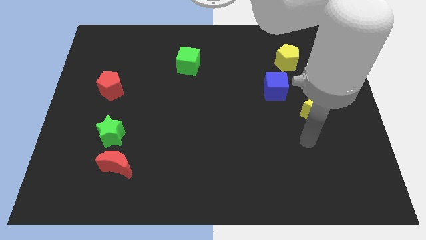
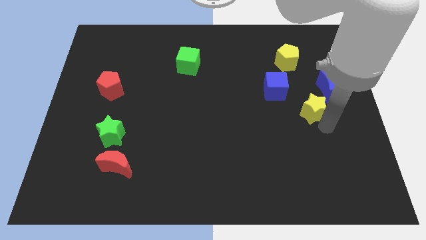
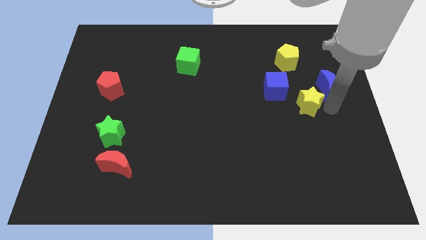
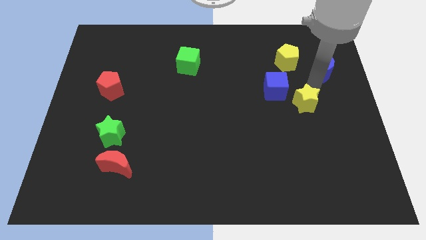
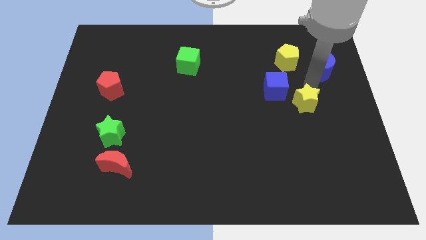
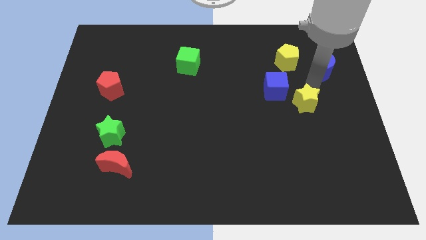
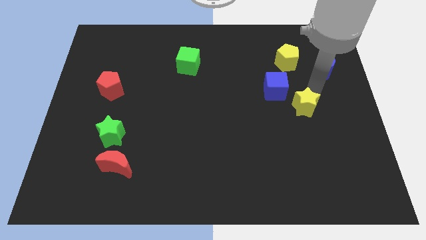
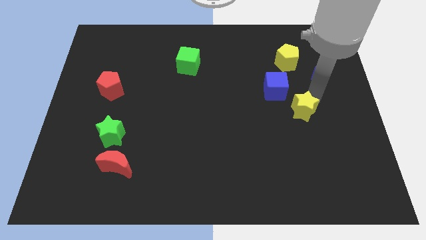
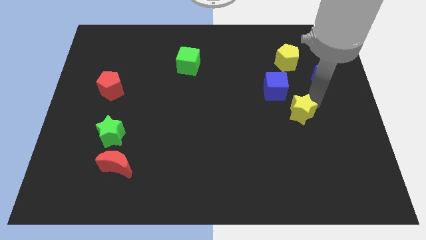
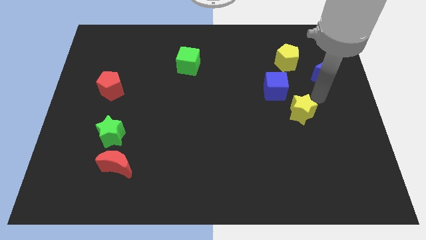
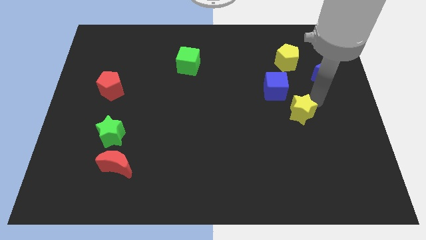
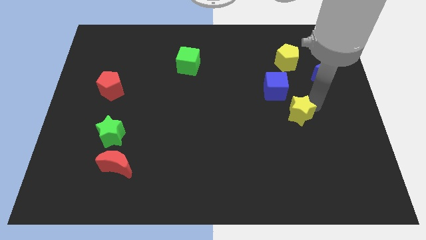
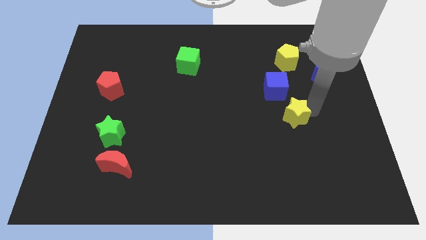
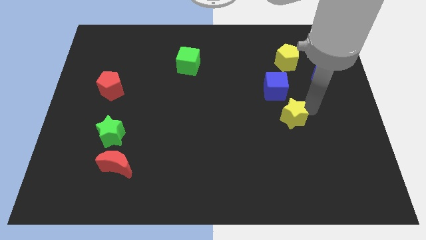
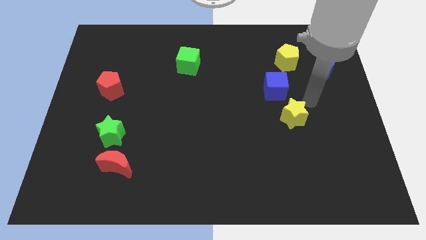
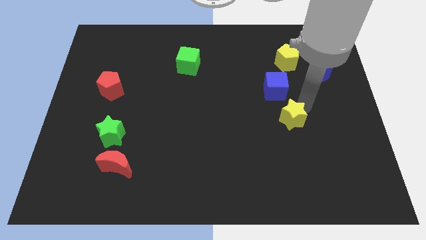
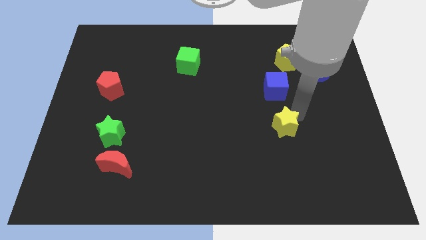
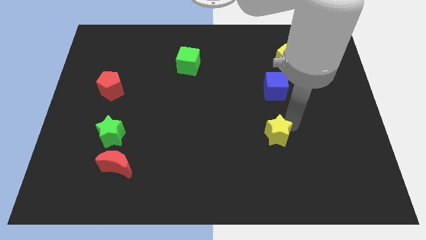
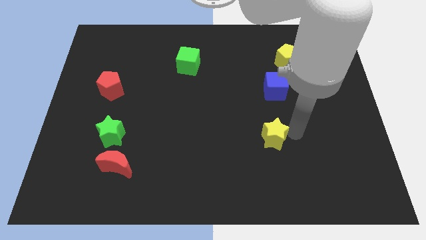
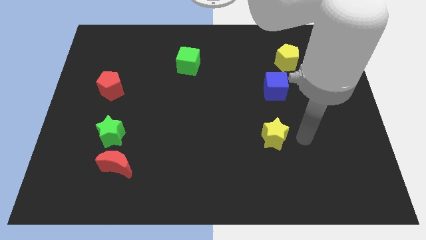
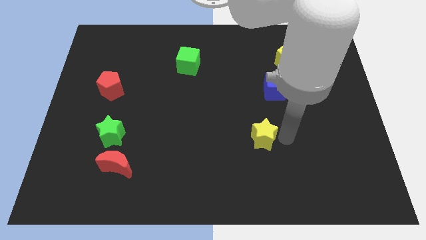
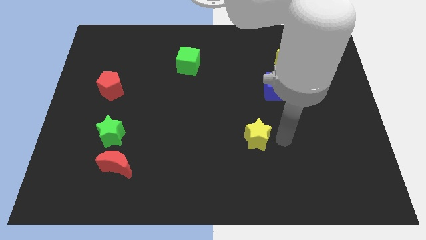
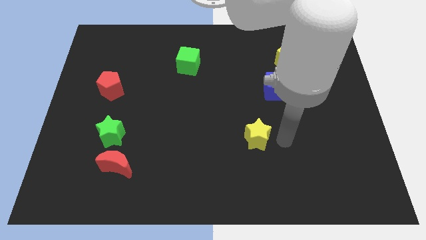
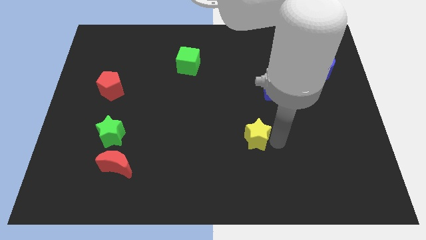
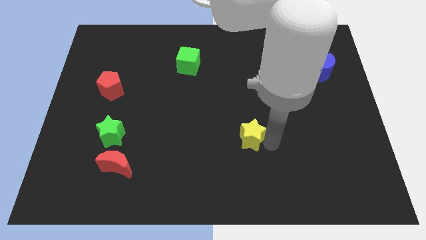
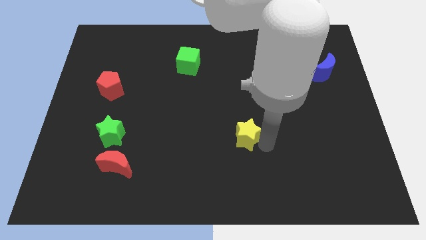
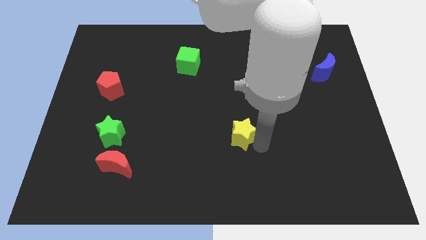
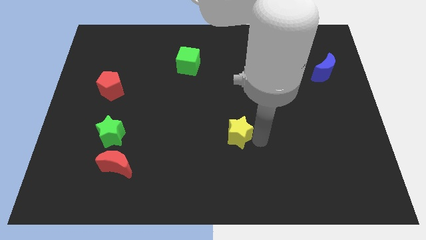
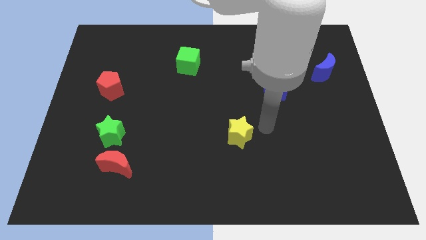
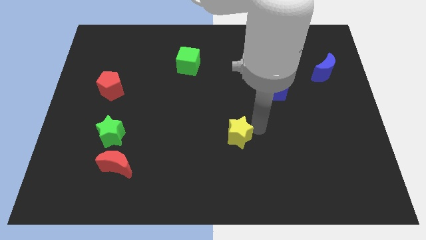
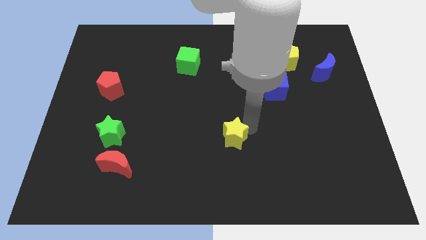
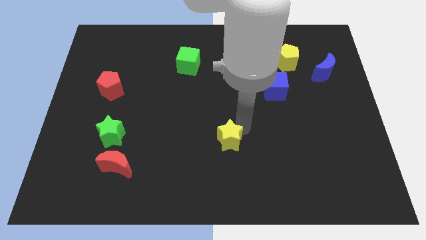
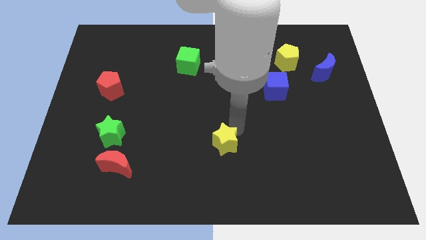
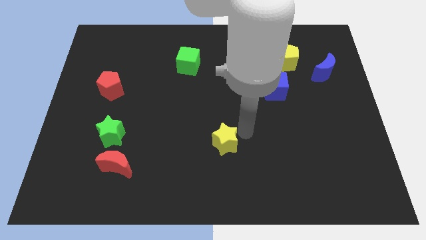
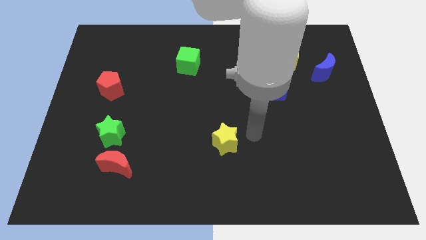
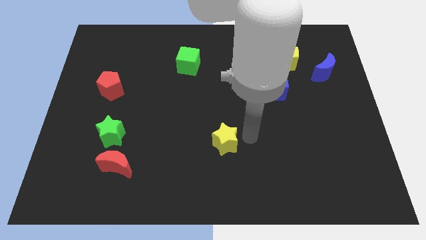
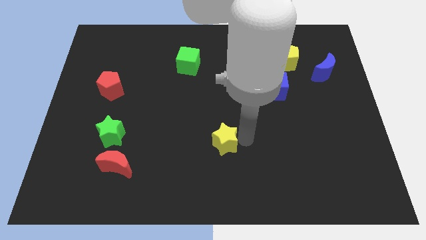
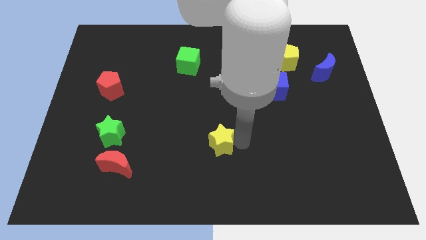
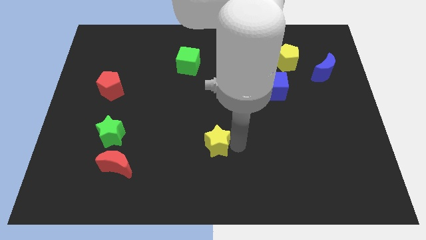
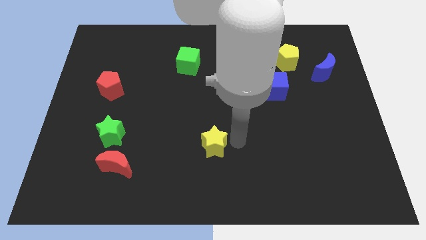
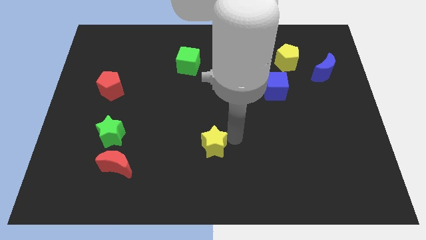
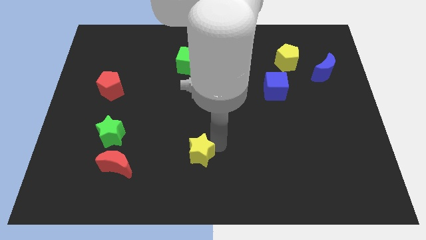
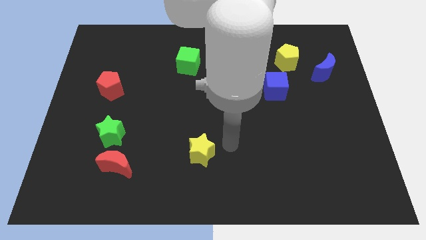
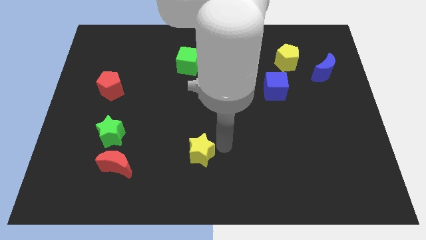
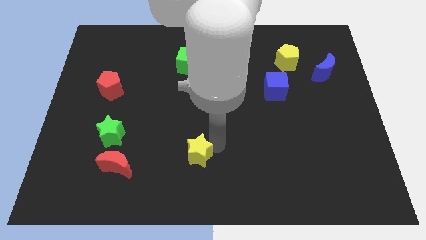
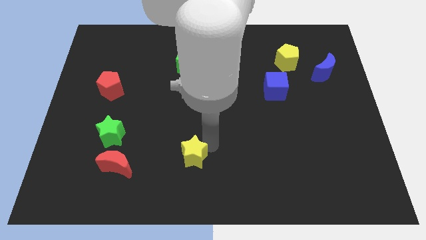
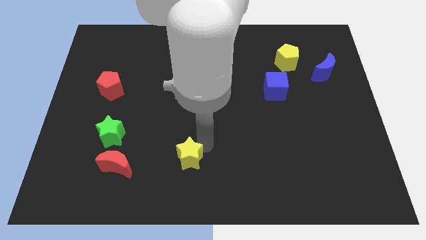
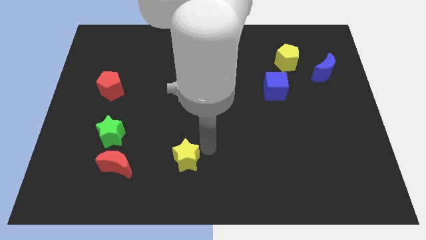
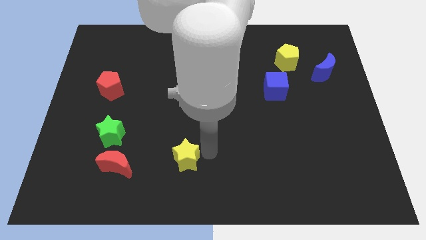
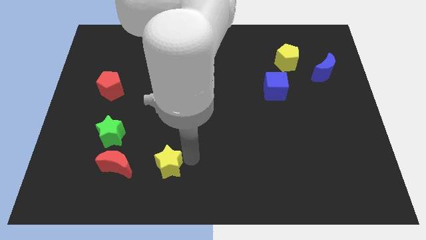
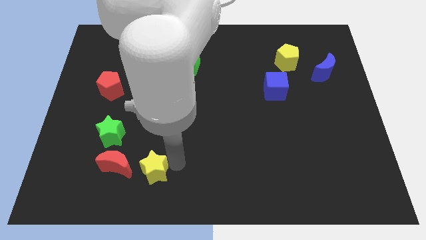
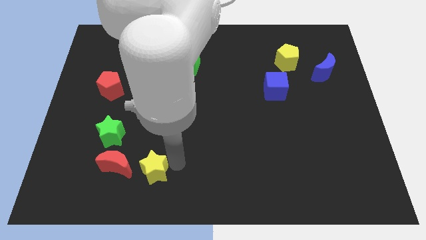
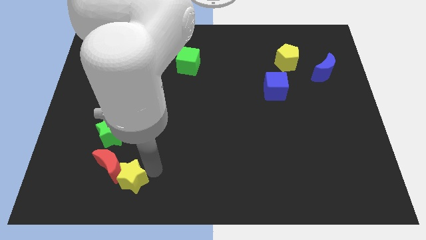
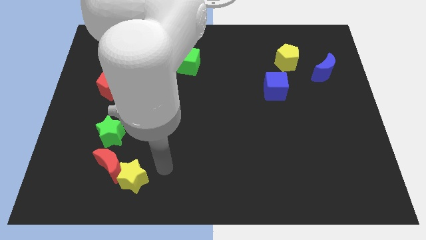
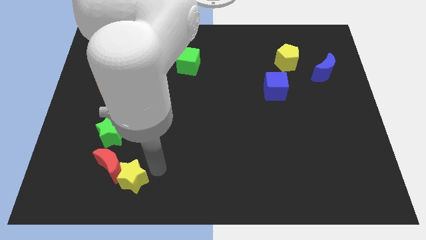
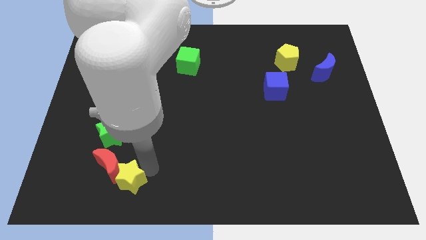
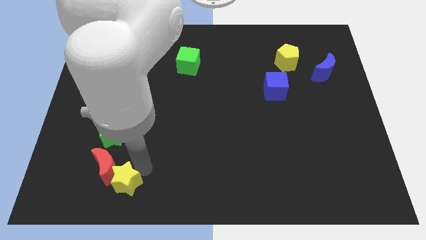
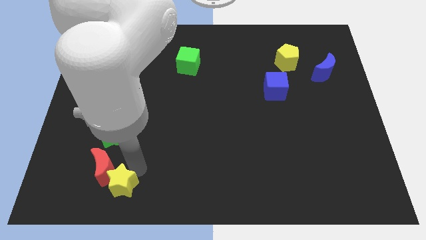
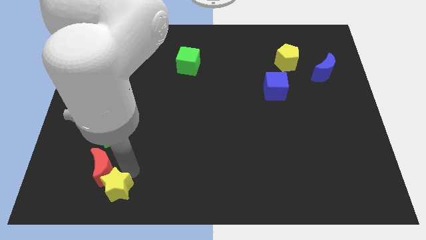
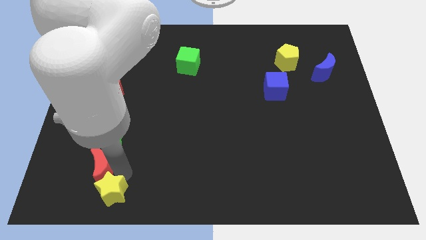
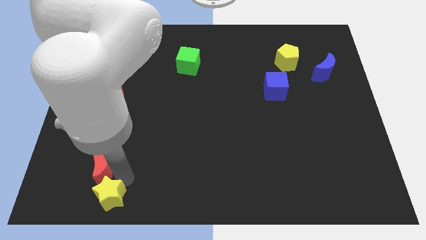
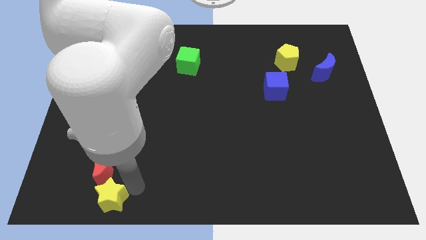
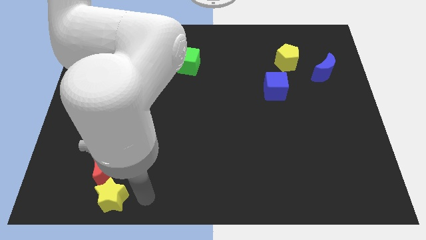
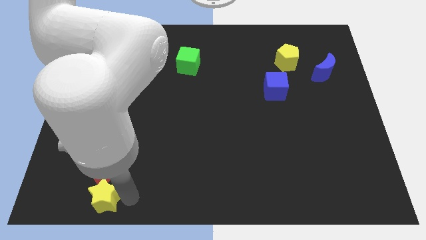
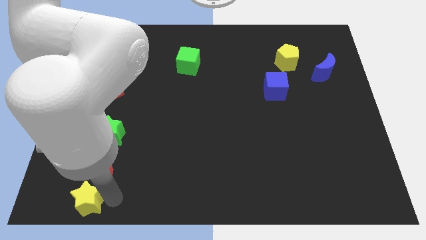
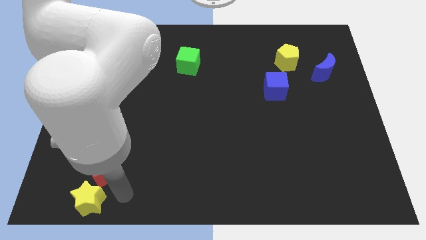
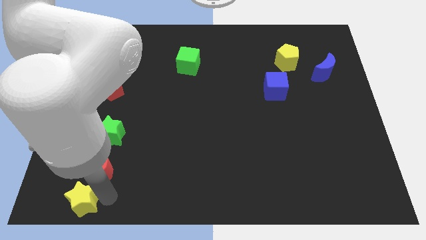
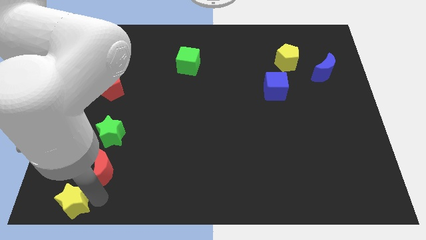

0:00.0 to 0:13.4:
slide the yellow star to the bottom left corner
